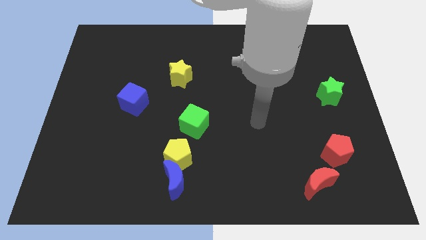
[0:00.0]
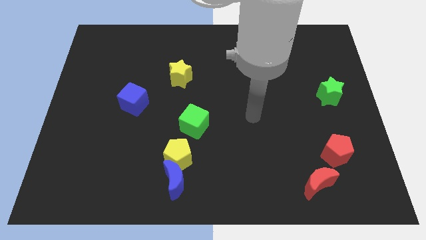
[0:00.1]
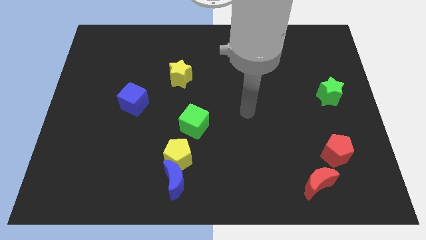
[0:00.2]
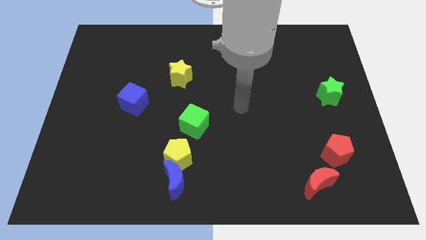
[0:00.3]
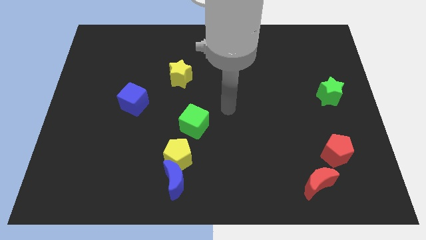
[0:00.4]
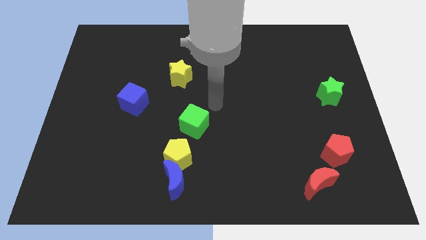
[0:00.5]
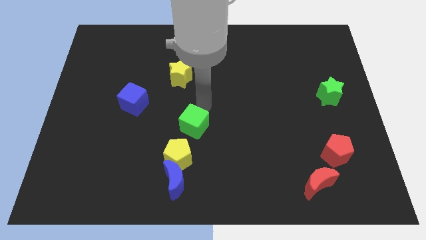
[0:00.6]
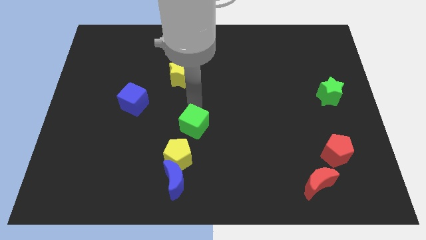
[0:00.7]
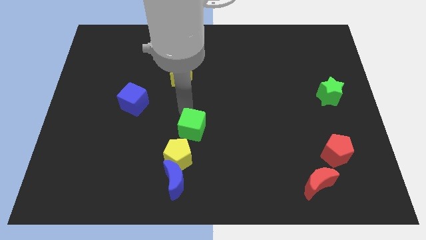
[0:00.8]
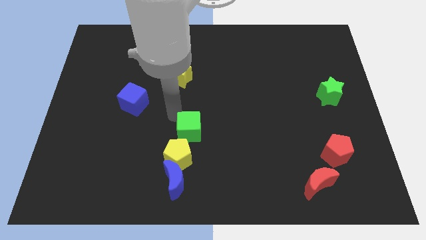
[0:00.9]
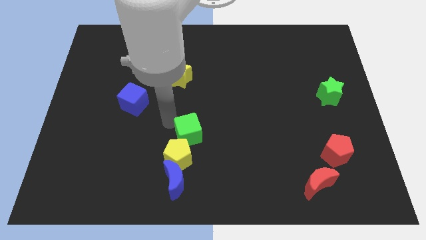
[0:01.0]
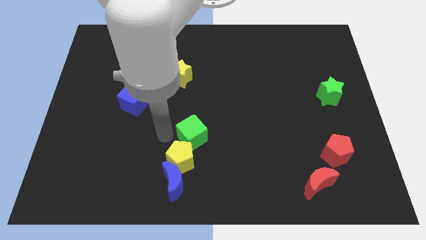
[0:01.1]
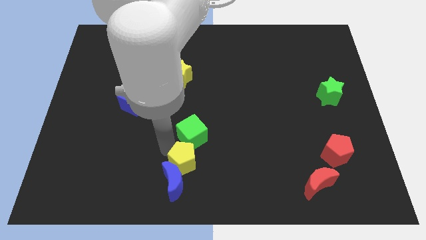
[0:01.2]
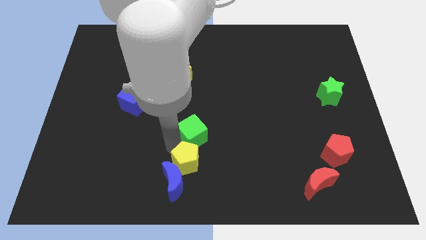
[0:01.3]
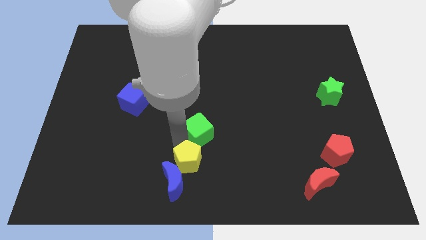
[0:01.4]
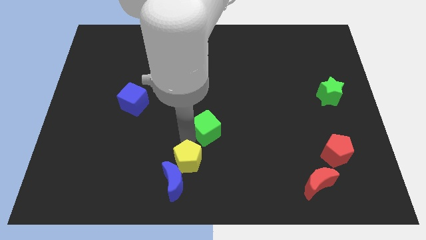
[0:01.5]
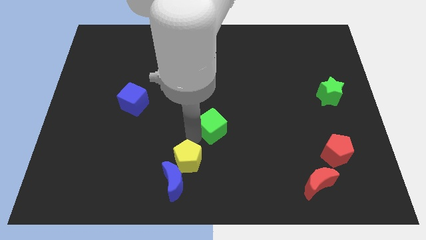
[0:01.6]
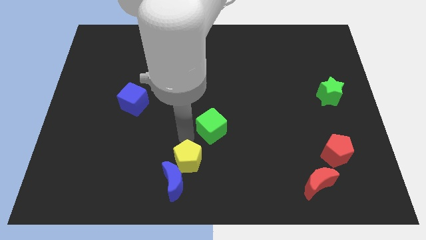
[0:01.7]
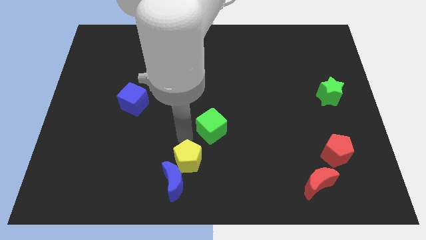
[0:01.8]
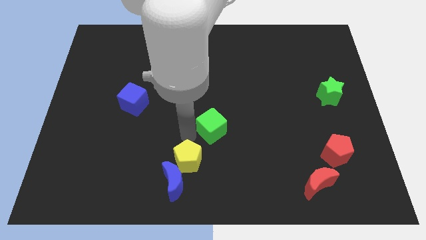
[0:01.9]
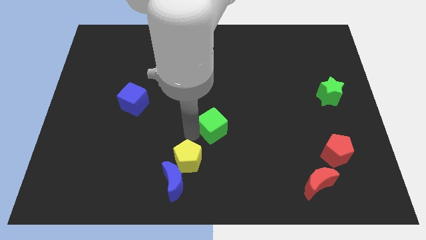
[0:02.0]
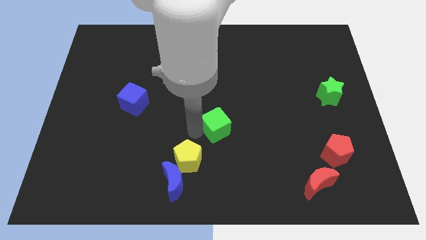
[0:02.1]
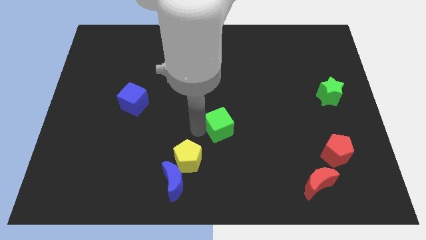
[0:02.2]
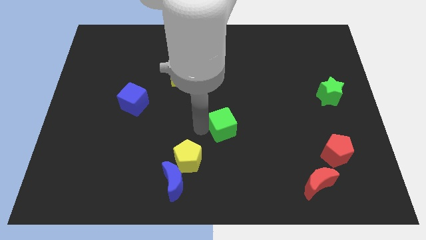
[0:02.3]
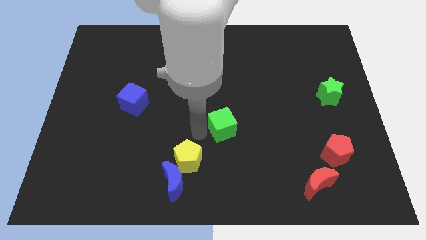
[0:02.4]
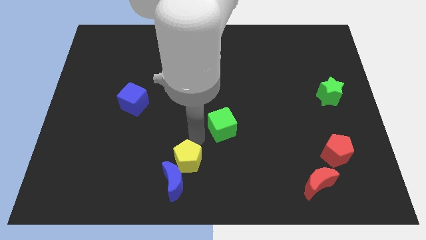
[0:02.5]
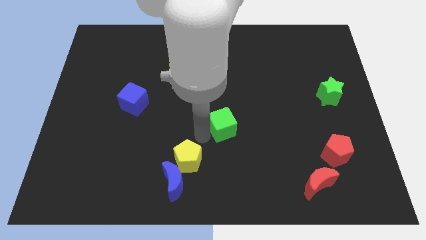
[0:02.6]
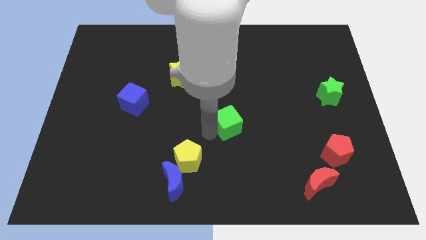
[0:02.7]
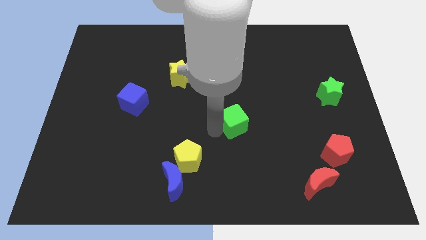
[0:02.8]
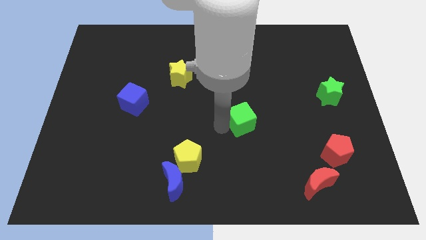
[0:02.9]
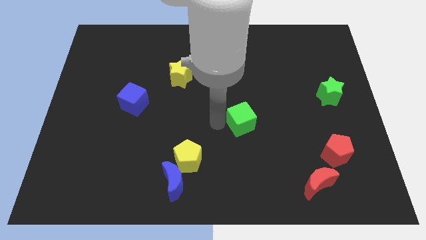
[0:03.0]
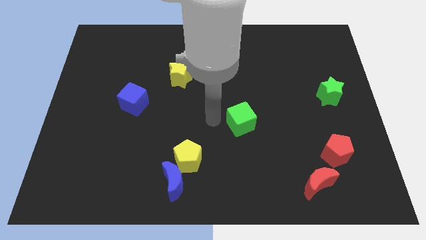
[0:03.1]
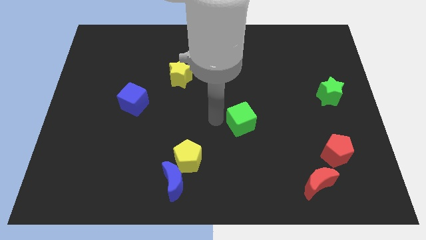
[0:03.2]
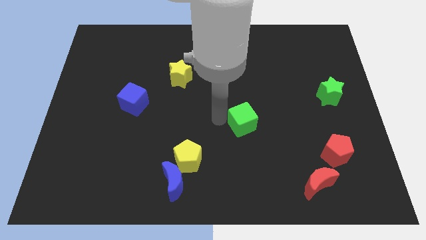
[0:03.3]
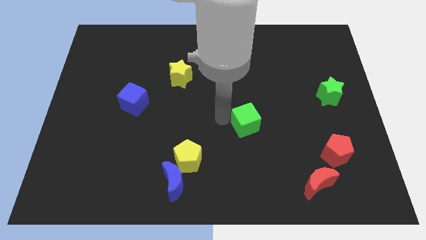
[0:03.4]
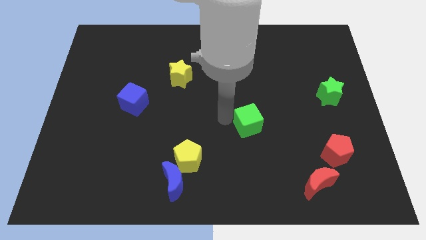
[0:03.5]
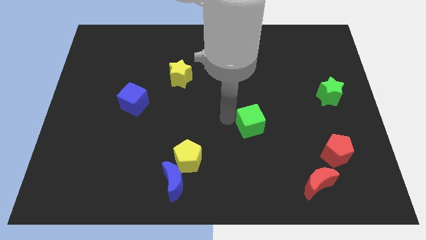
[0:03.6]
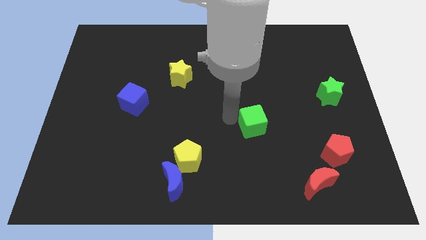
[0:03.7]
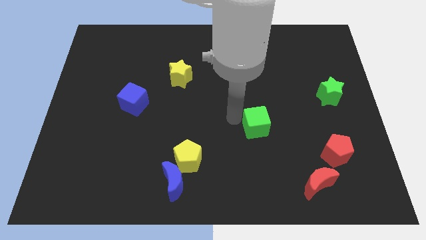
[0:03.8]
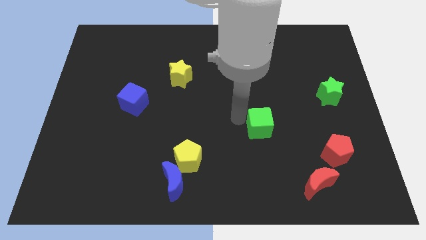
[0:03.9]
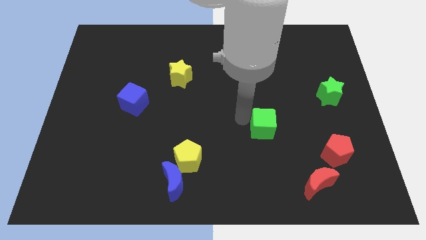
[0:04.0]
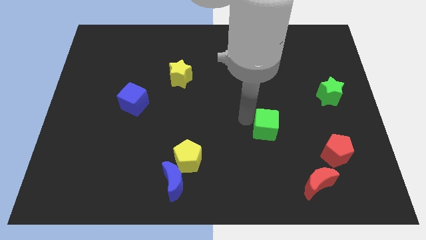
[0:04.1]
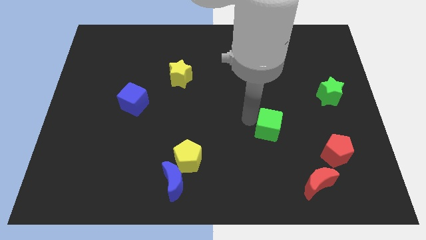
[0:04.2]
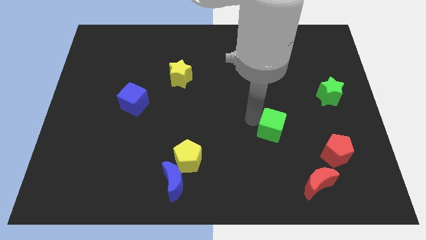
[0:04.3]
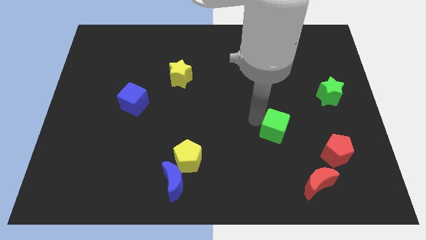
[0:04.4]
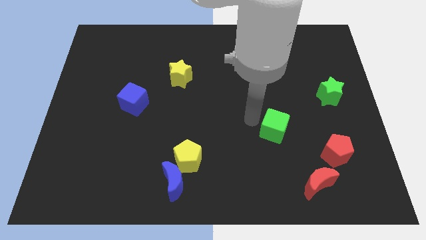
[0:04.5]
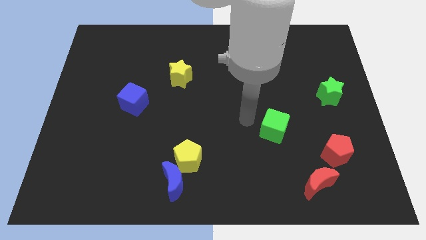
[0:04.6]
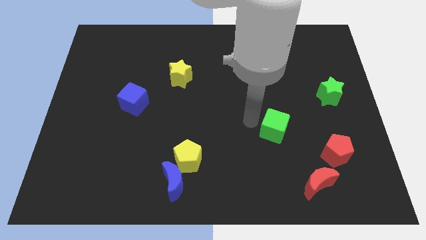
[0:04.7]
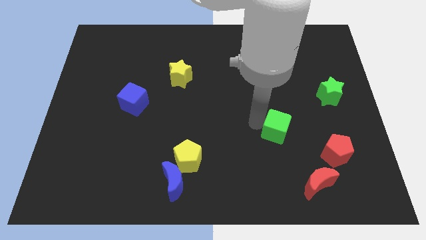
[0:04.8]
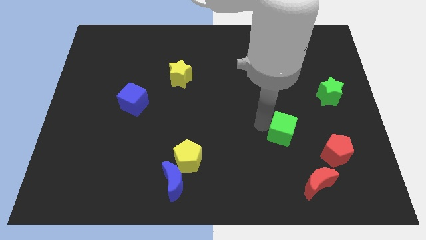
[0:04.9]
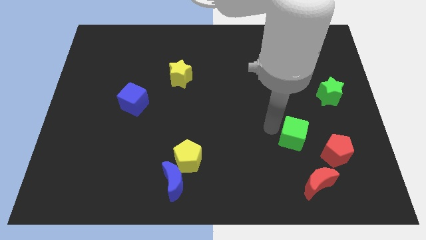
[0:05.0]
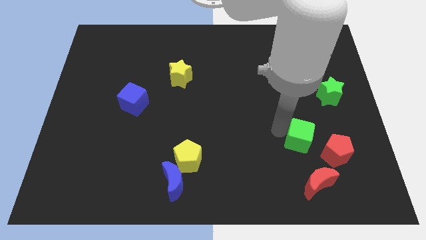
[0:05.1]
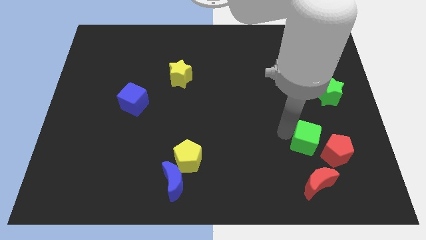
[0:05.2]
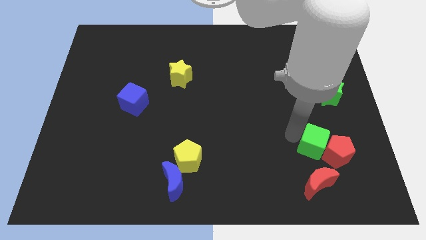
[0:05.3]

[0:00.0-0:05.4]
put the green cube towards the red pentagon

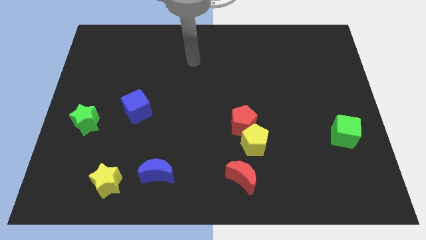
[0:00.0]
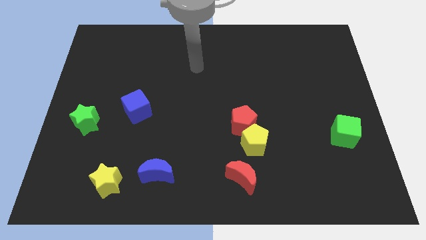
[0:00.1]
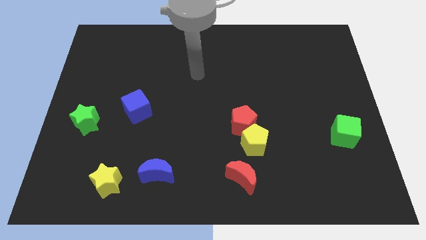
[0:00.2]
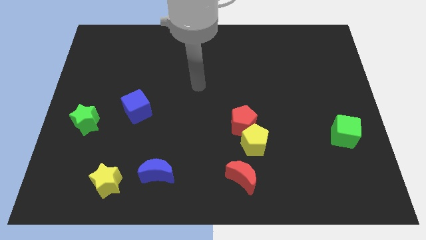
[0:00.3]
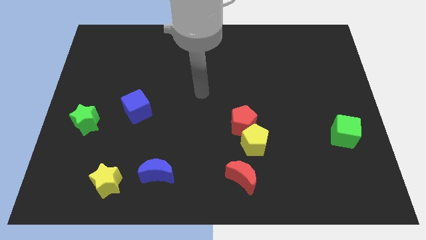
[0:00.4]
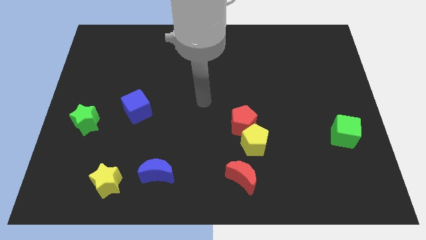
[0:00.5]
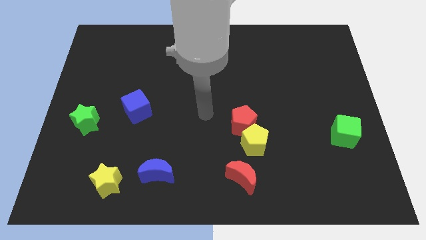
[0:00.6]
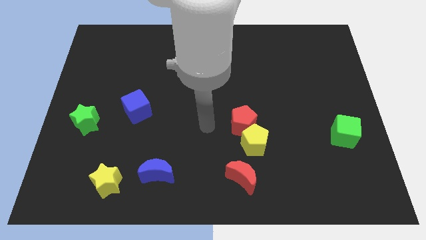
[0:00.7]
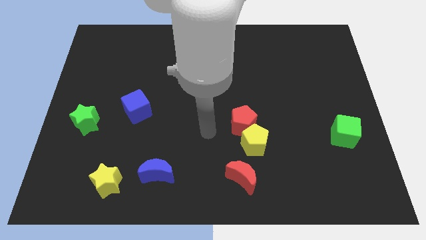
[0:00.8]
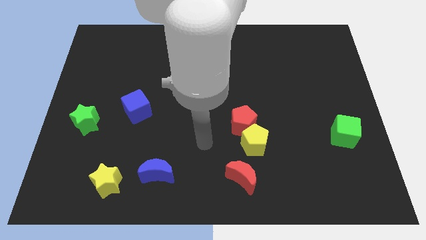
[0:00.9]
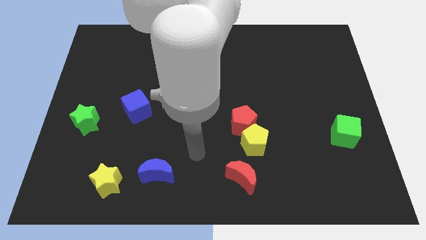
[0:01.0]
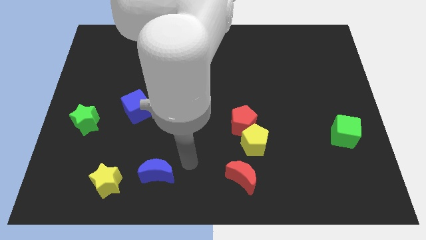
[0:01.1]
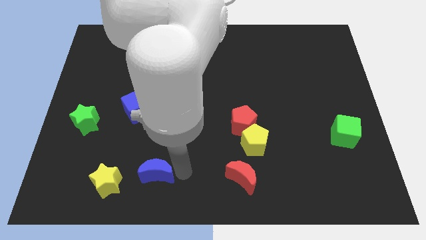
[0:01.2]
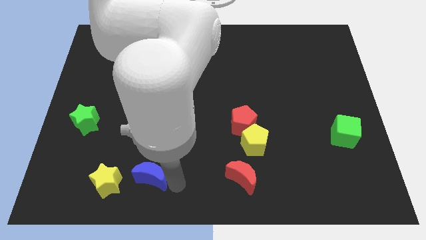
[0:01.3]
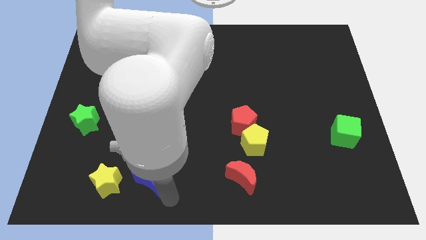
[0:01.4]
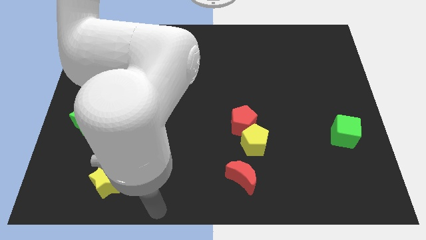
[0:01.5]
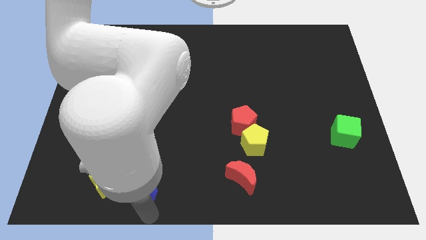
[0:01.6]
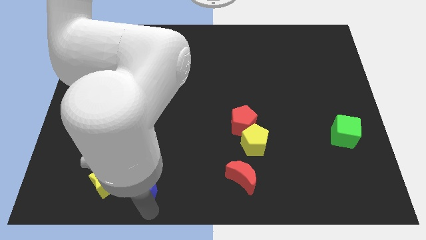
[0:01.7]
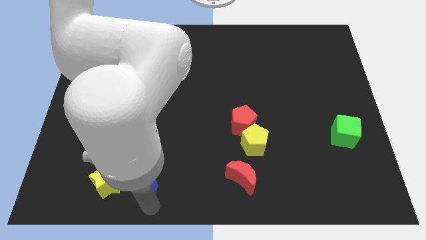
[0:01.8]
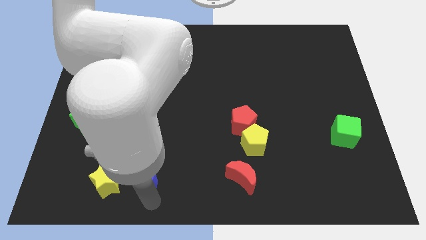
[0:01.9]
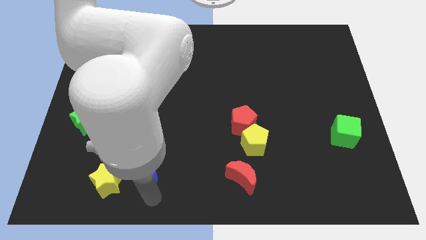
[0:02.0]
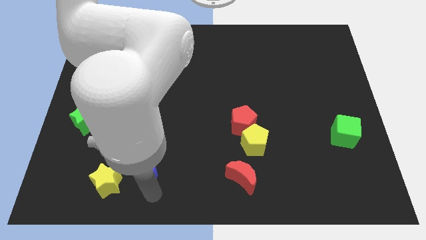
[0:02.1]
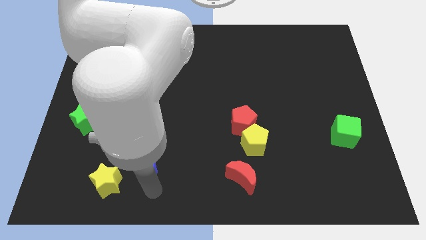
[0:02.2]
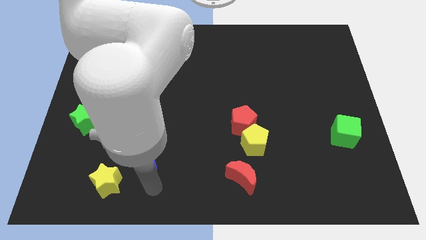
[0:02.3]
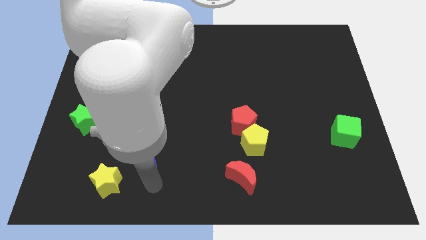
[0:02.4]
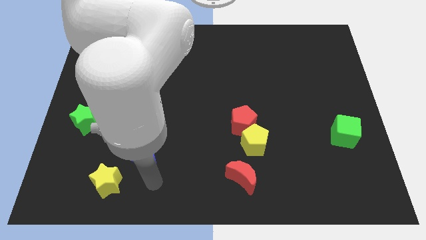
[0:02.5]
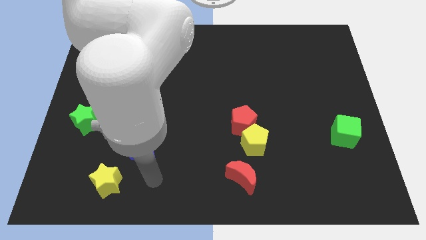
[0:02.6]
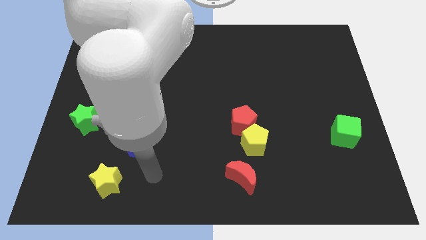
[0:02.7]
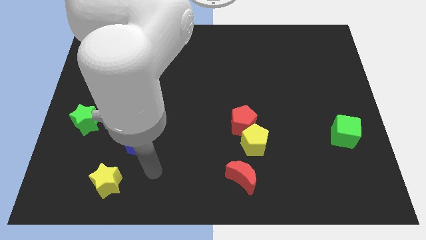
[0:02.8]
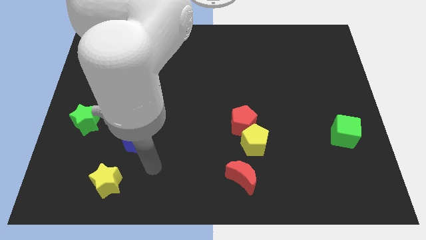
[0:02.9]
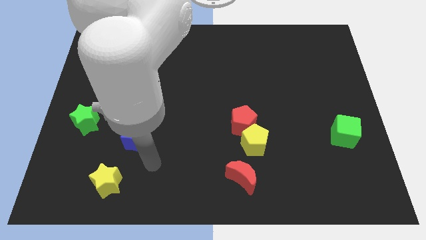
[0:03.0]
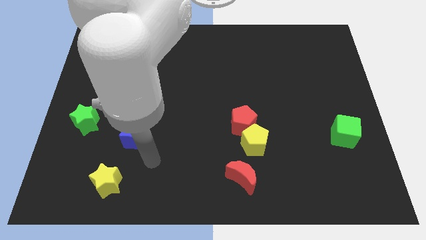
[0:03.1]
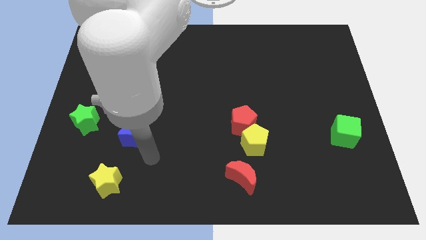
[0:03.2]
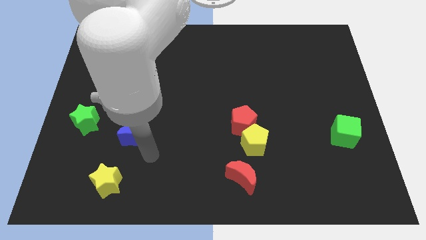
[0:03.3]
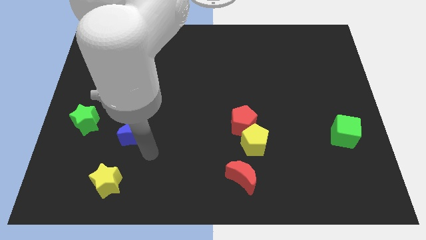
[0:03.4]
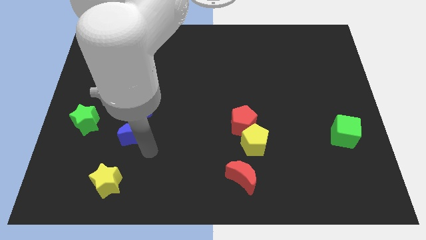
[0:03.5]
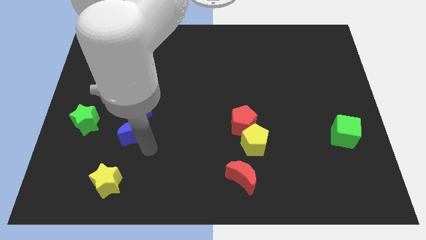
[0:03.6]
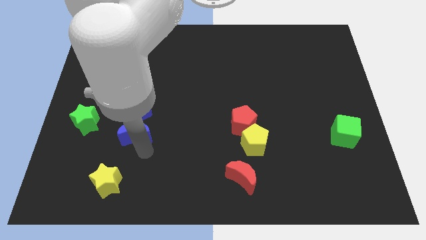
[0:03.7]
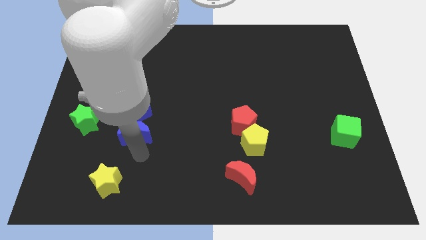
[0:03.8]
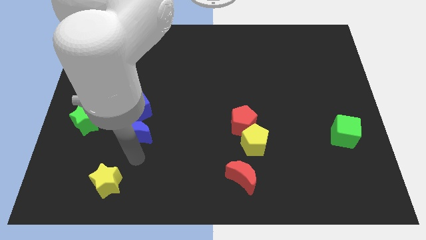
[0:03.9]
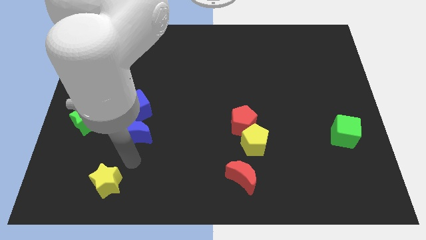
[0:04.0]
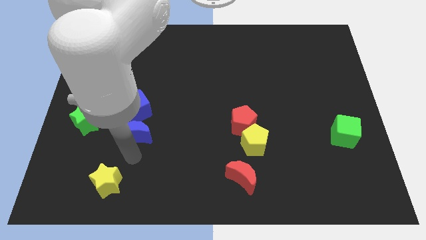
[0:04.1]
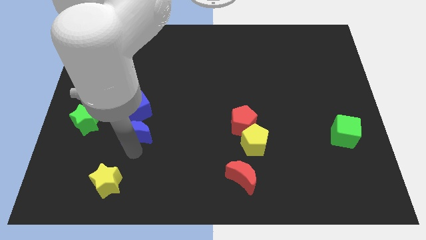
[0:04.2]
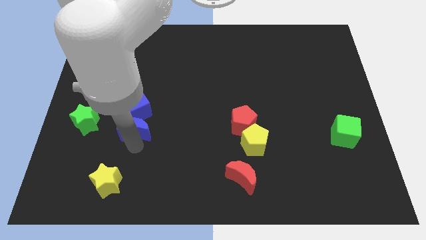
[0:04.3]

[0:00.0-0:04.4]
slide the blue moon to the blue cube
